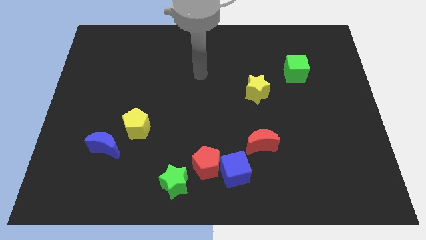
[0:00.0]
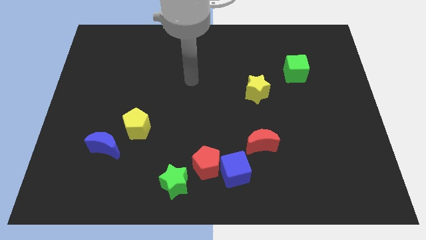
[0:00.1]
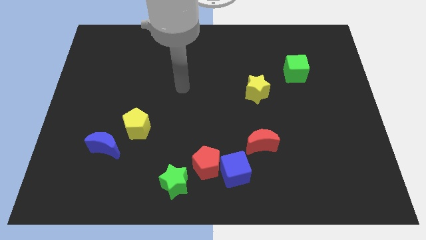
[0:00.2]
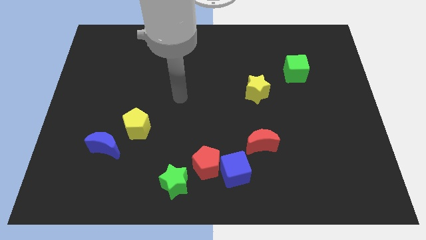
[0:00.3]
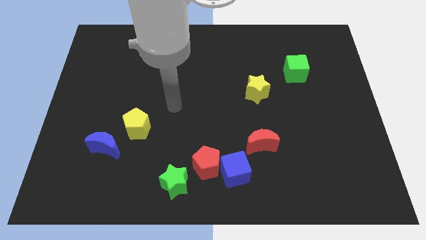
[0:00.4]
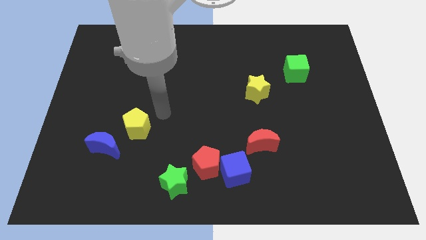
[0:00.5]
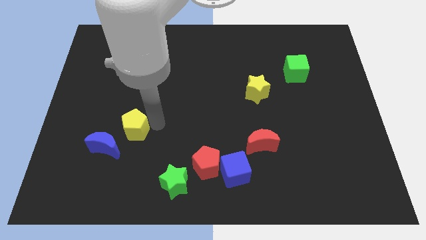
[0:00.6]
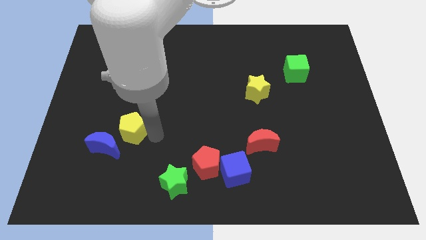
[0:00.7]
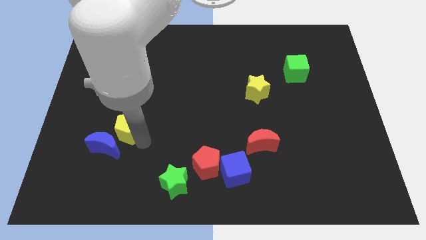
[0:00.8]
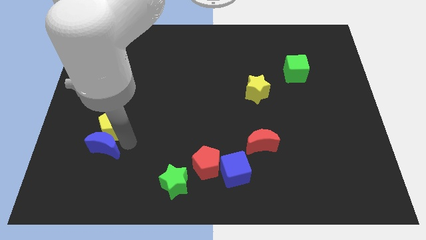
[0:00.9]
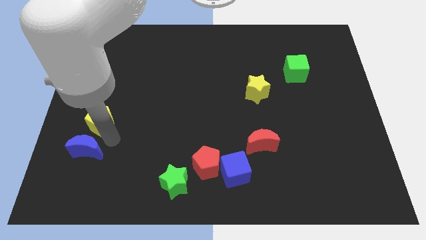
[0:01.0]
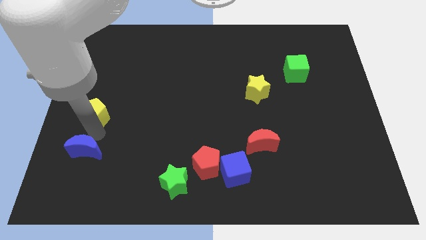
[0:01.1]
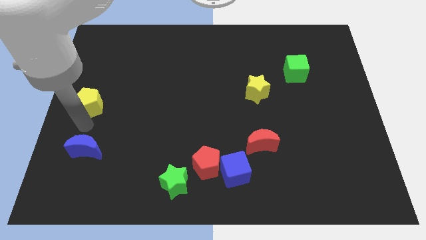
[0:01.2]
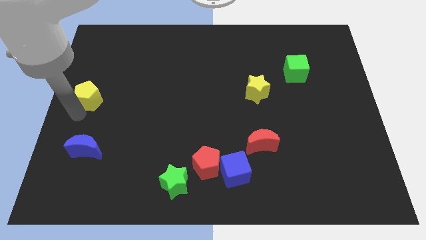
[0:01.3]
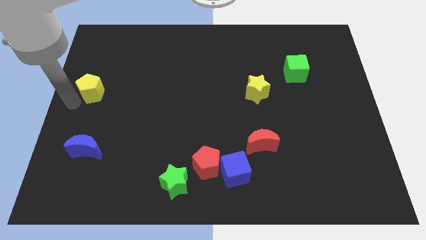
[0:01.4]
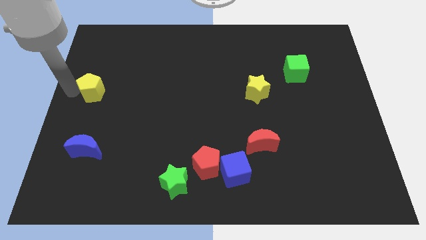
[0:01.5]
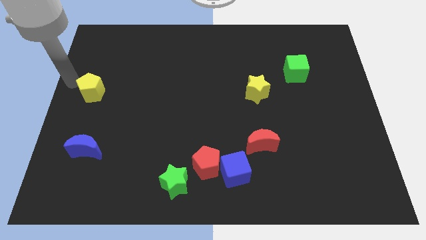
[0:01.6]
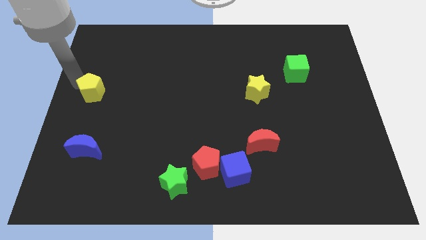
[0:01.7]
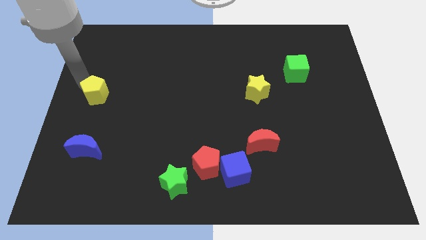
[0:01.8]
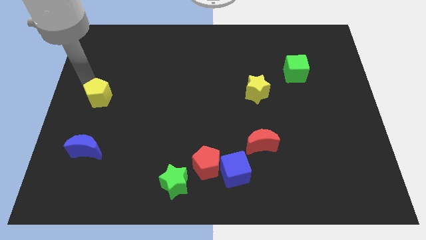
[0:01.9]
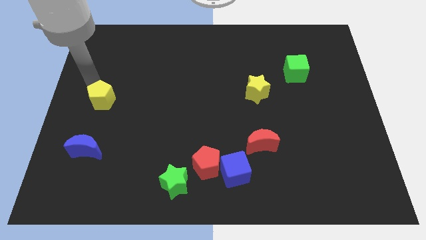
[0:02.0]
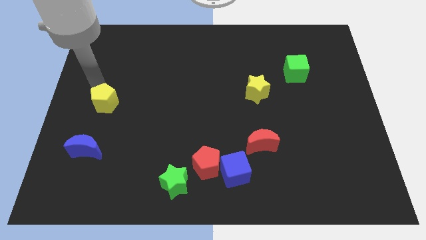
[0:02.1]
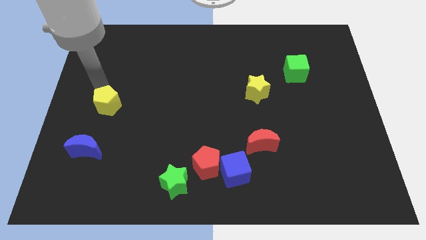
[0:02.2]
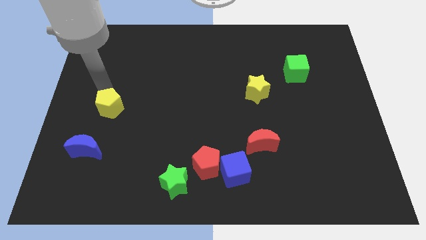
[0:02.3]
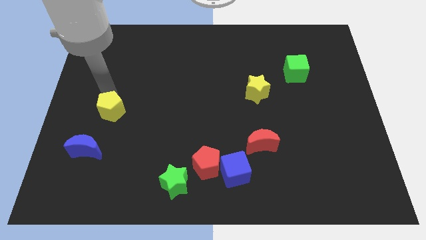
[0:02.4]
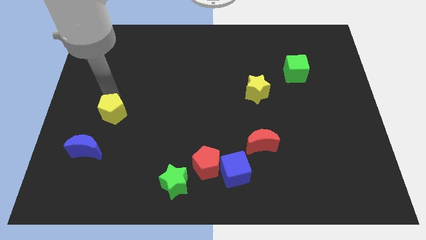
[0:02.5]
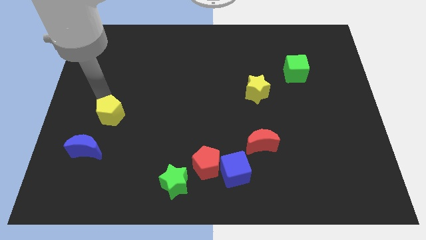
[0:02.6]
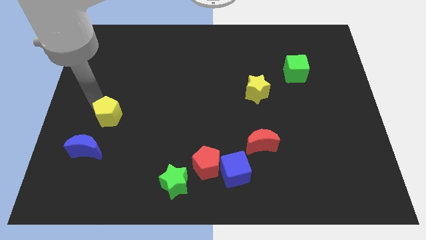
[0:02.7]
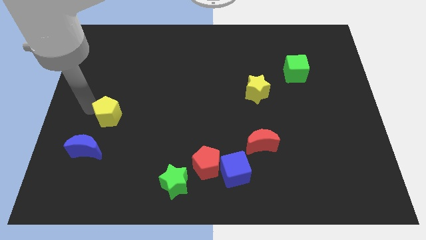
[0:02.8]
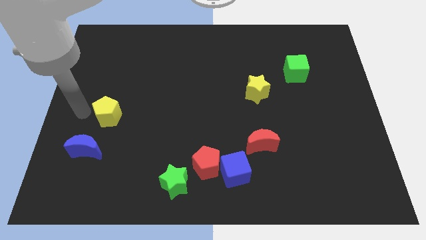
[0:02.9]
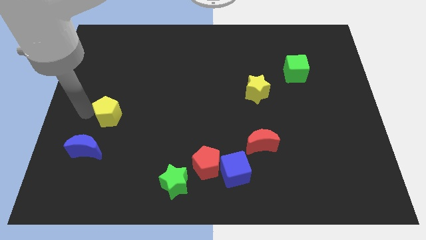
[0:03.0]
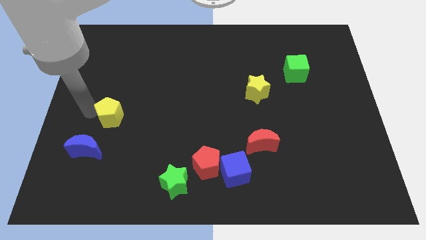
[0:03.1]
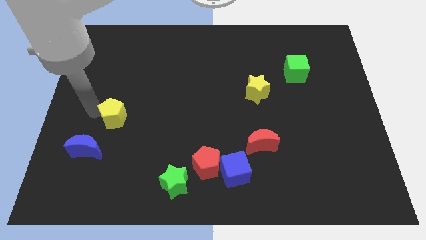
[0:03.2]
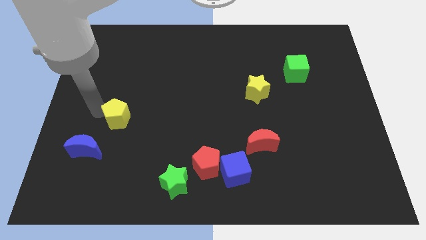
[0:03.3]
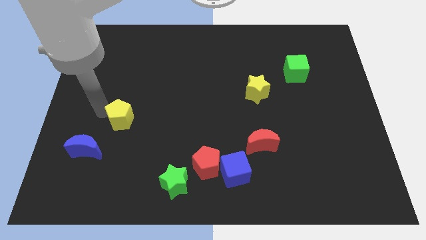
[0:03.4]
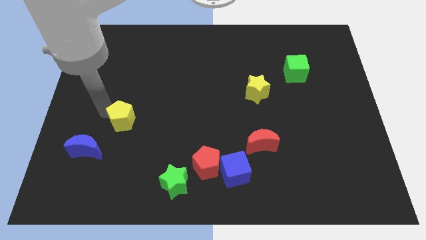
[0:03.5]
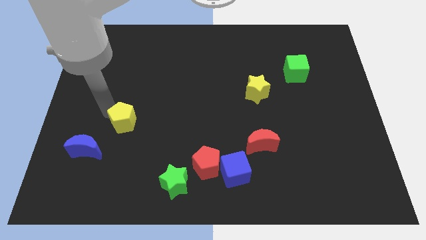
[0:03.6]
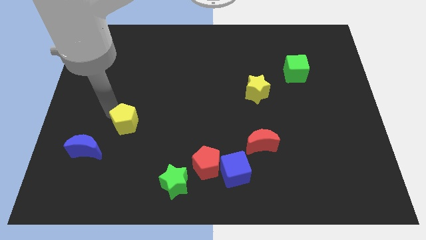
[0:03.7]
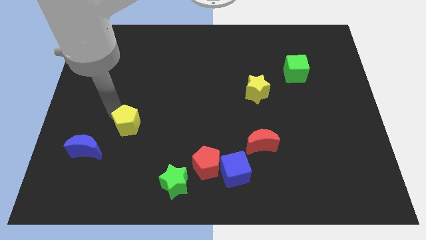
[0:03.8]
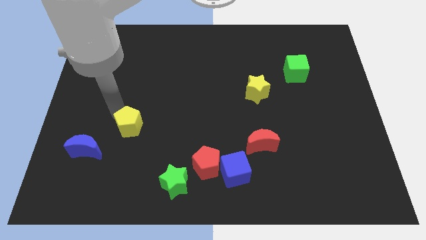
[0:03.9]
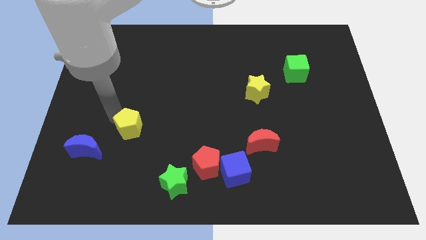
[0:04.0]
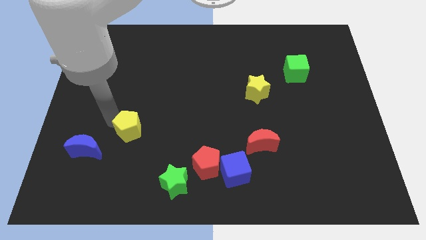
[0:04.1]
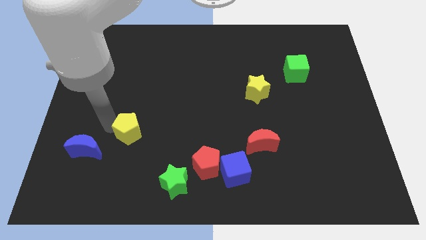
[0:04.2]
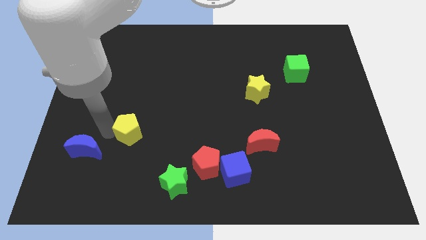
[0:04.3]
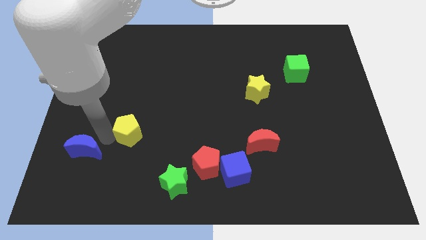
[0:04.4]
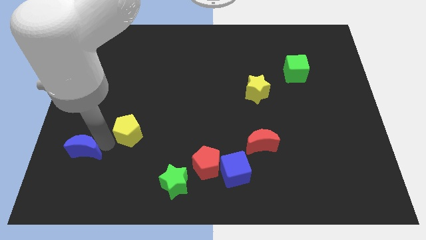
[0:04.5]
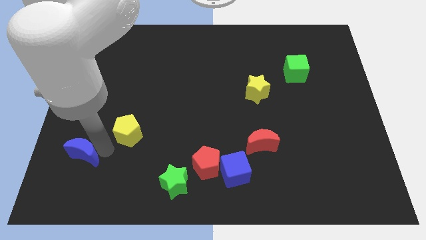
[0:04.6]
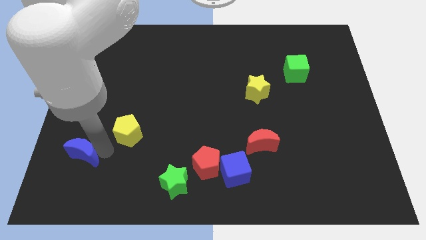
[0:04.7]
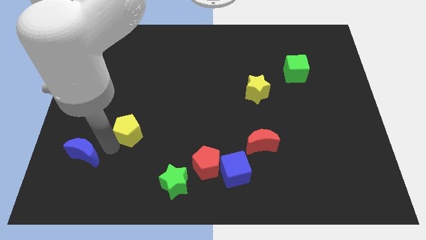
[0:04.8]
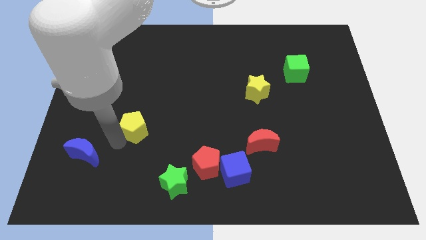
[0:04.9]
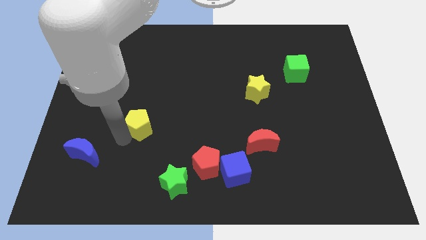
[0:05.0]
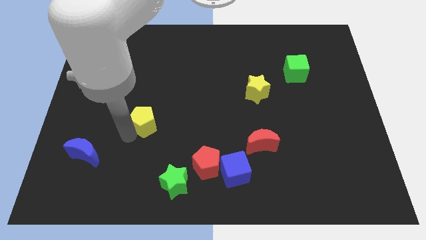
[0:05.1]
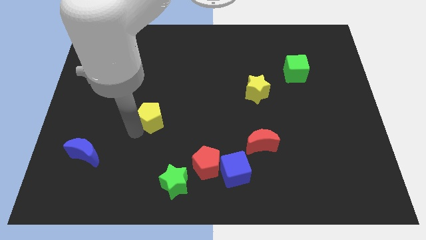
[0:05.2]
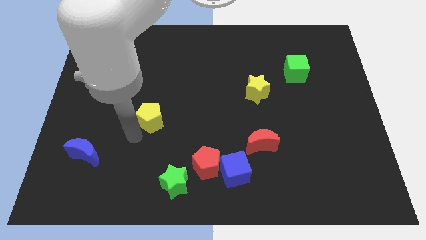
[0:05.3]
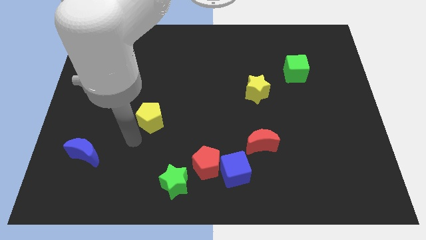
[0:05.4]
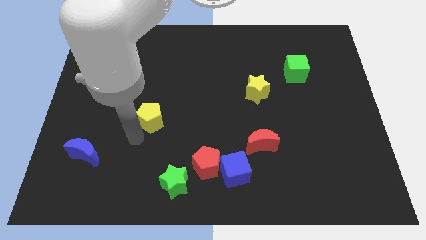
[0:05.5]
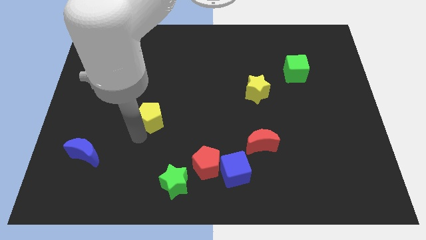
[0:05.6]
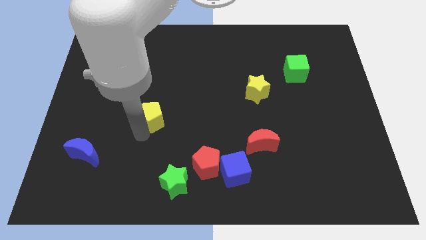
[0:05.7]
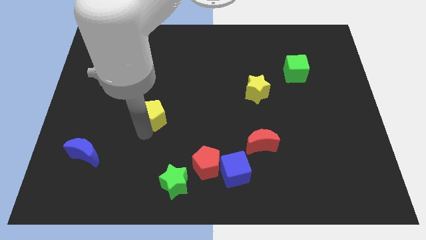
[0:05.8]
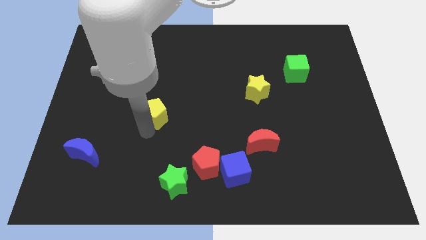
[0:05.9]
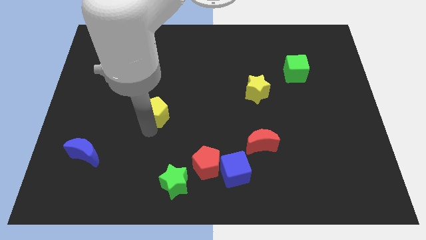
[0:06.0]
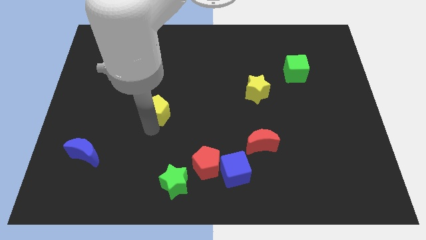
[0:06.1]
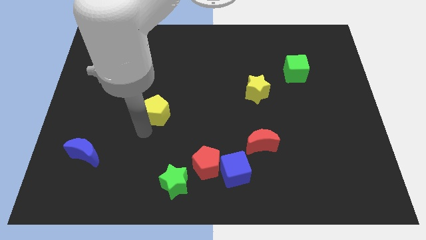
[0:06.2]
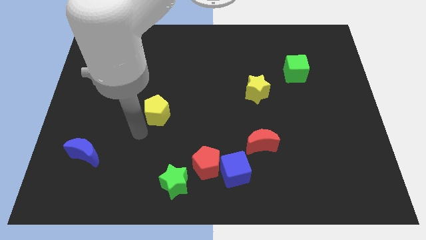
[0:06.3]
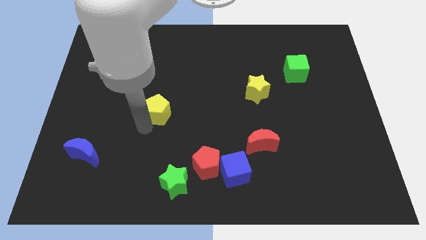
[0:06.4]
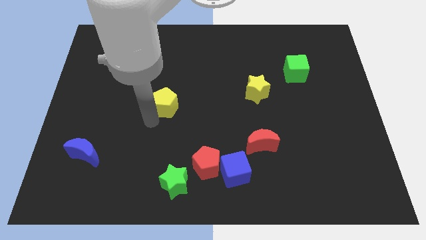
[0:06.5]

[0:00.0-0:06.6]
slide the yellow pentagon up and to the right somewhat

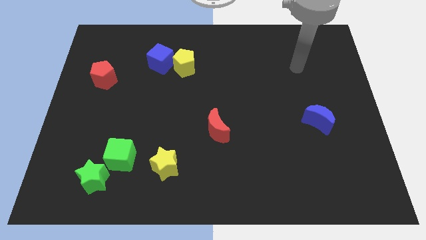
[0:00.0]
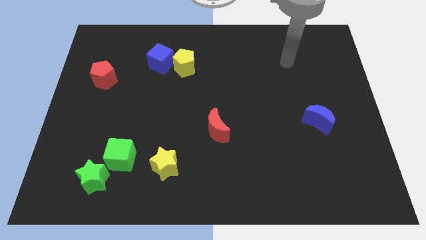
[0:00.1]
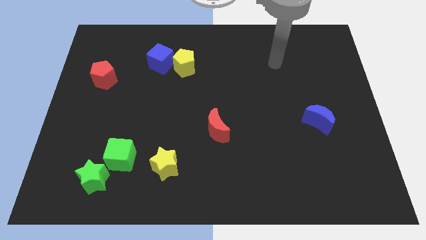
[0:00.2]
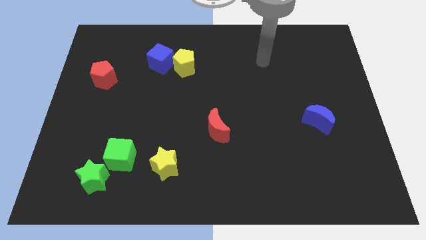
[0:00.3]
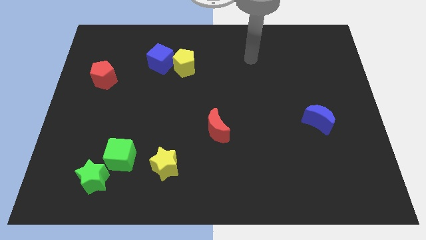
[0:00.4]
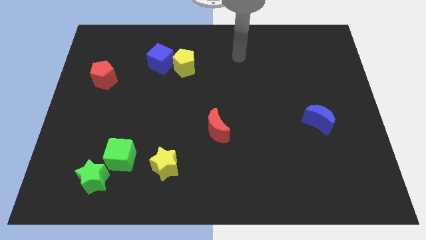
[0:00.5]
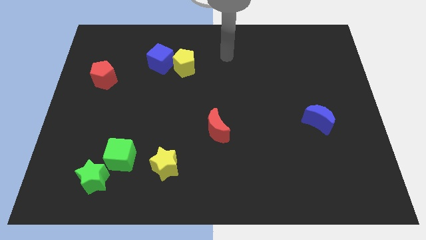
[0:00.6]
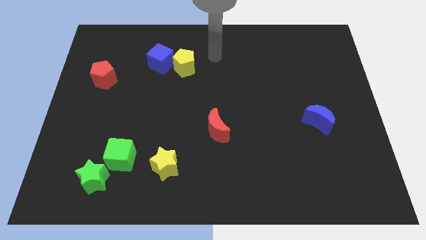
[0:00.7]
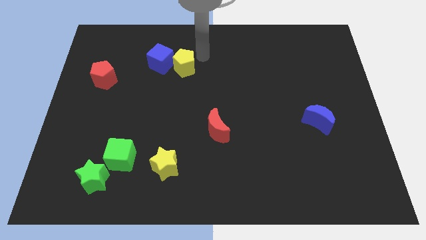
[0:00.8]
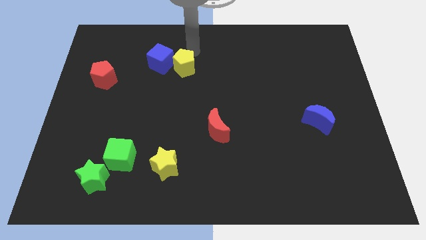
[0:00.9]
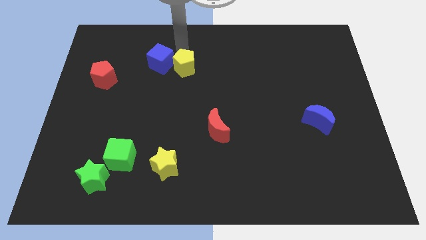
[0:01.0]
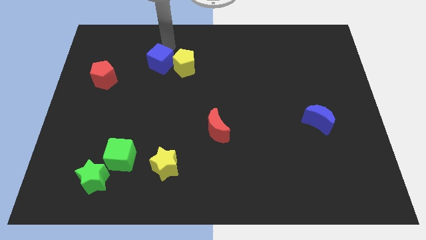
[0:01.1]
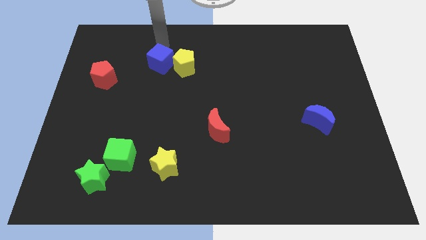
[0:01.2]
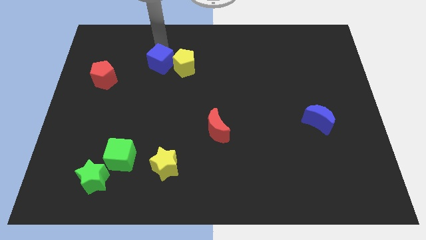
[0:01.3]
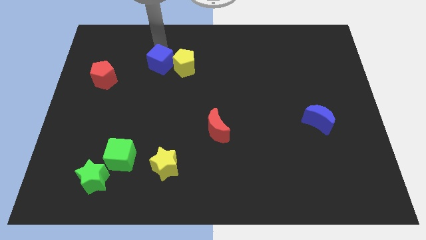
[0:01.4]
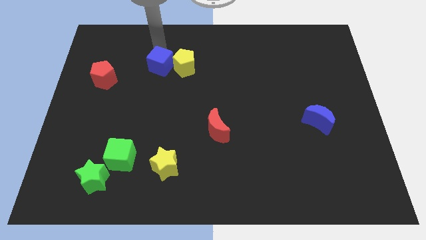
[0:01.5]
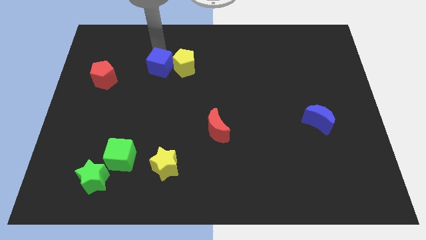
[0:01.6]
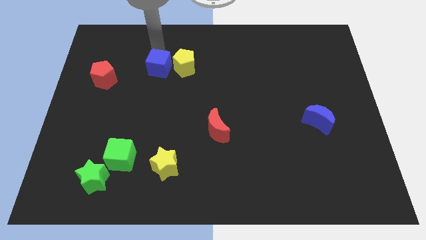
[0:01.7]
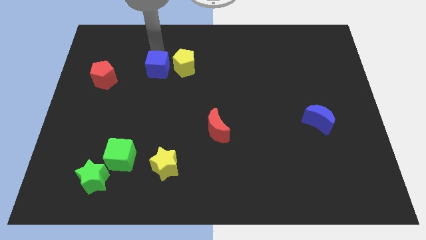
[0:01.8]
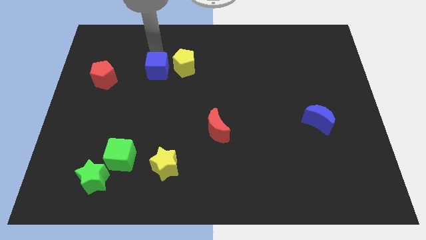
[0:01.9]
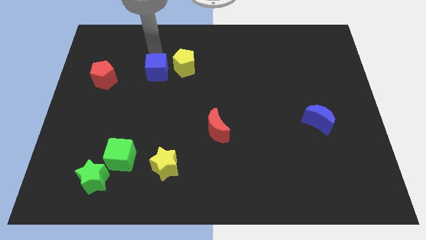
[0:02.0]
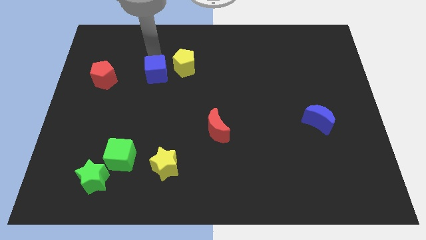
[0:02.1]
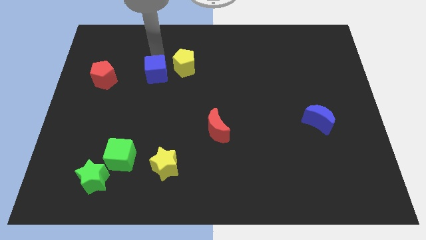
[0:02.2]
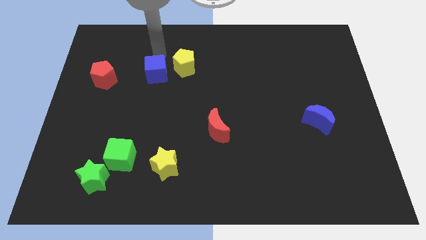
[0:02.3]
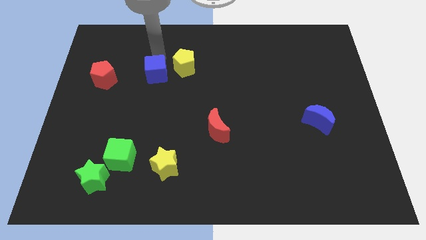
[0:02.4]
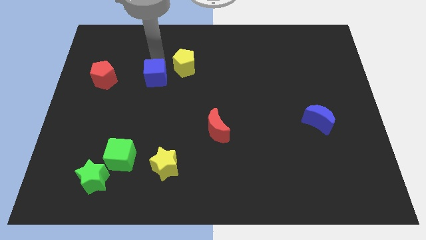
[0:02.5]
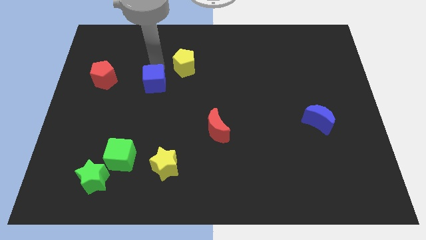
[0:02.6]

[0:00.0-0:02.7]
slide the blue cube downwards a little
